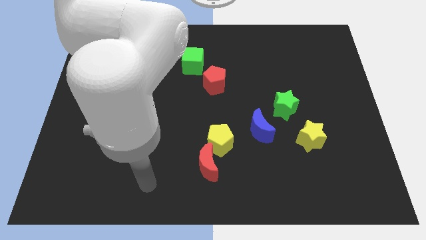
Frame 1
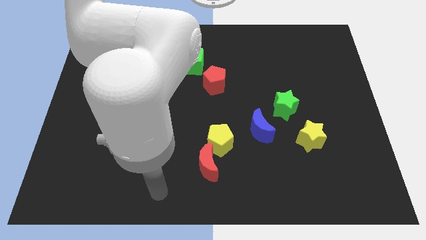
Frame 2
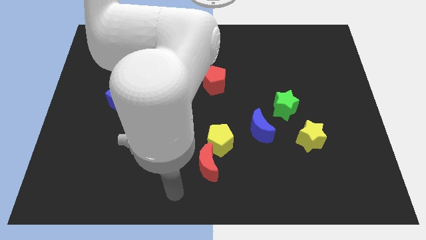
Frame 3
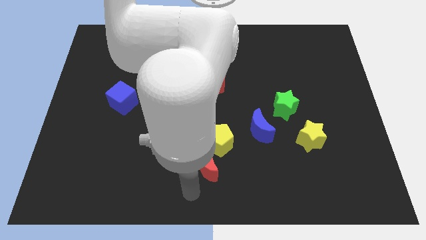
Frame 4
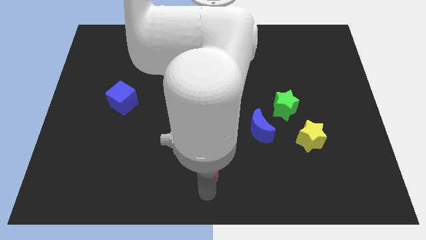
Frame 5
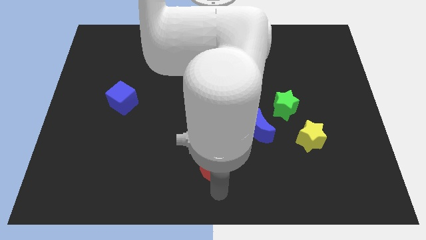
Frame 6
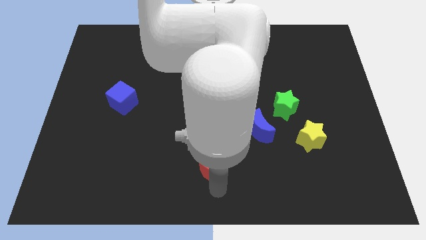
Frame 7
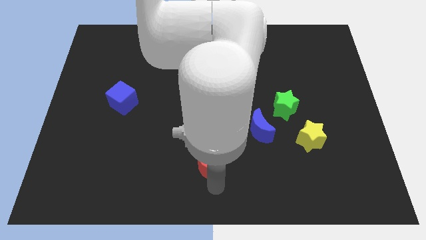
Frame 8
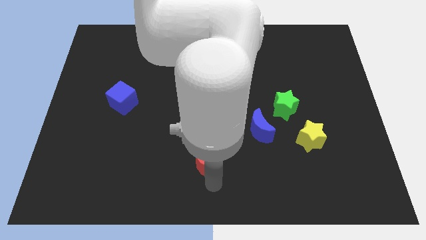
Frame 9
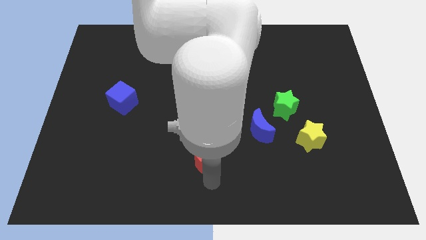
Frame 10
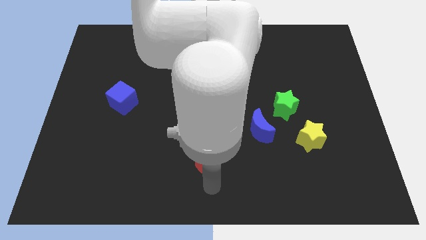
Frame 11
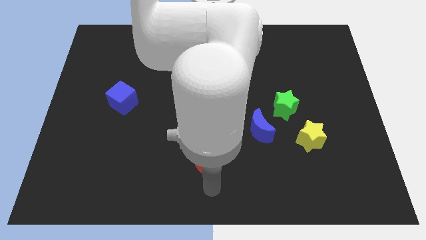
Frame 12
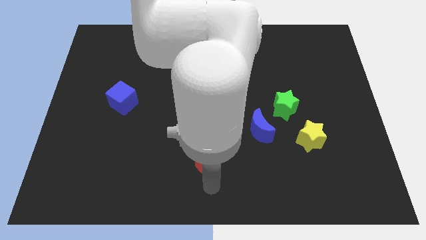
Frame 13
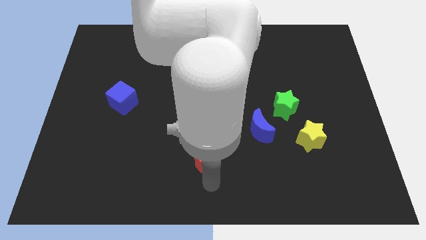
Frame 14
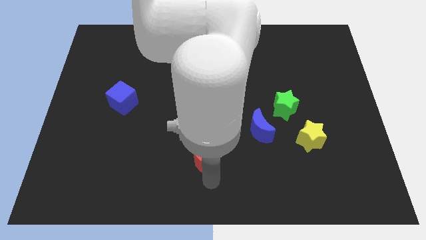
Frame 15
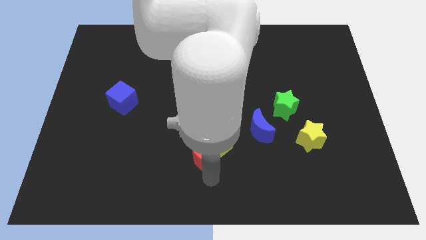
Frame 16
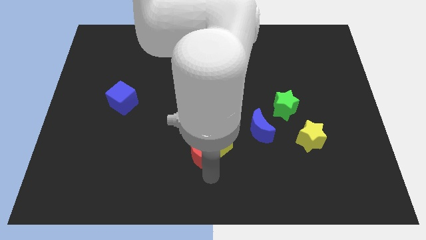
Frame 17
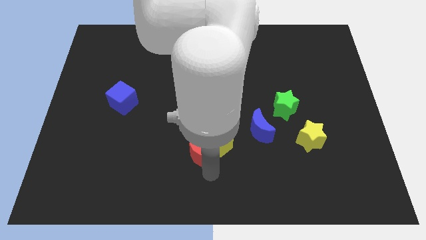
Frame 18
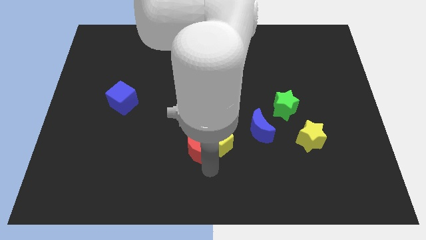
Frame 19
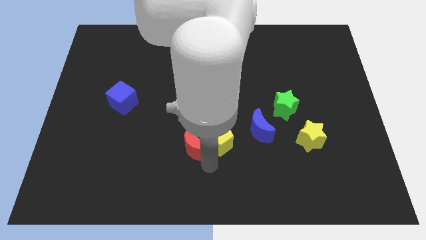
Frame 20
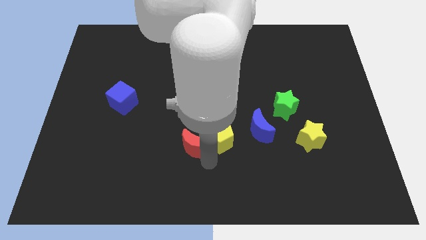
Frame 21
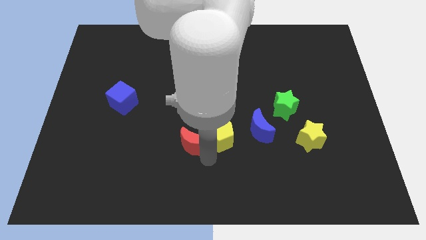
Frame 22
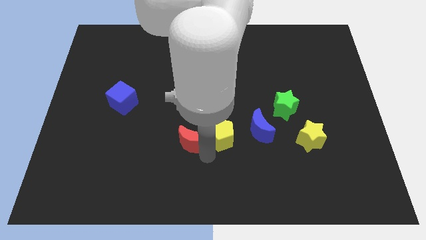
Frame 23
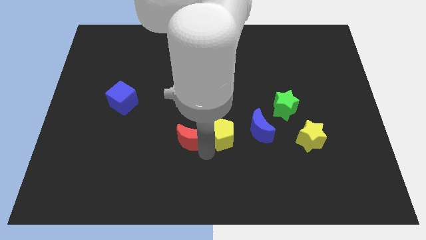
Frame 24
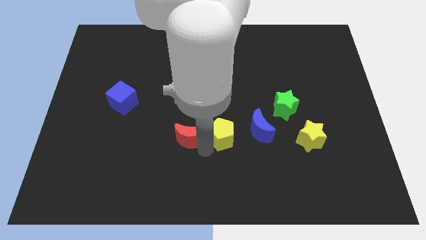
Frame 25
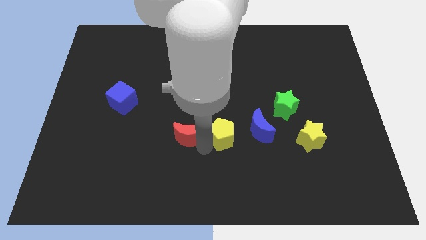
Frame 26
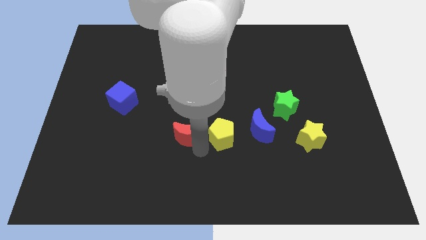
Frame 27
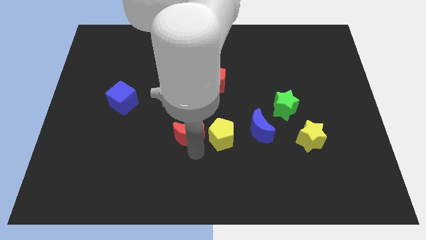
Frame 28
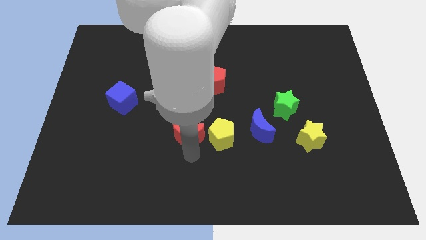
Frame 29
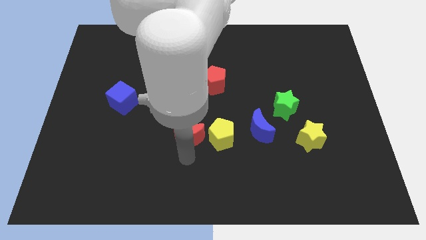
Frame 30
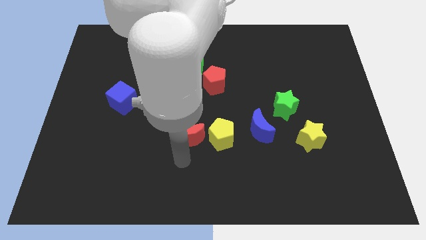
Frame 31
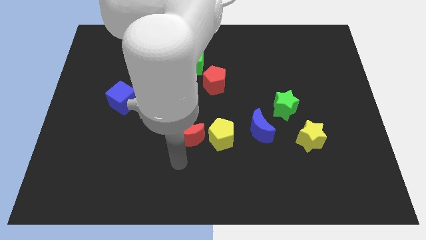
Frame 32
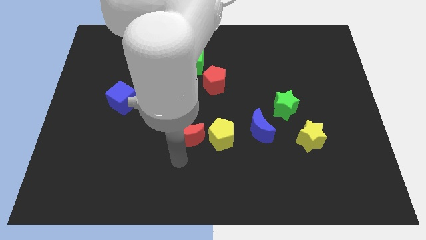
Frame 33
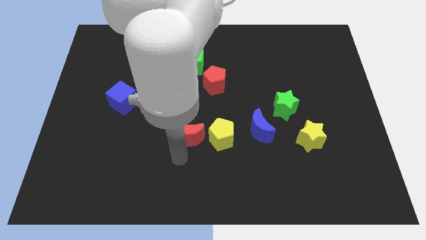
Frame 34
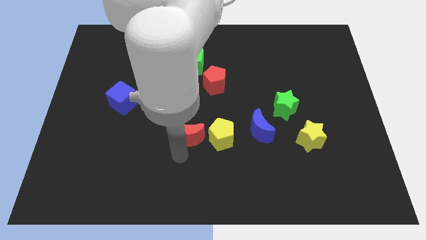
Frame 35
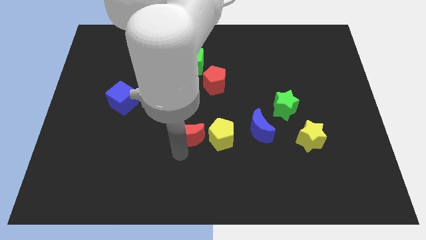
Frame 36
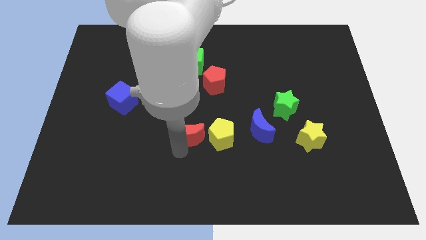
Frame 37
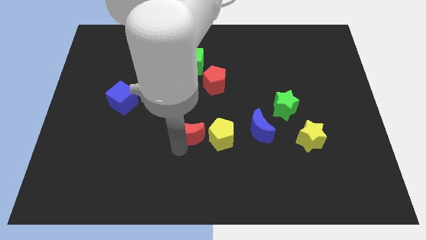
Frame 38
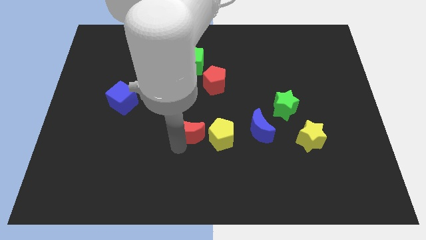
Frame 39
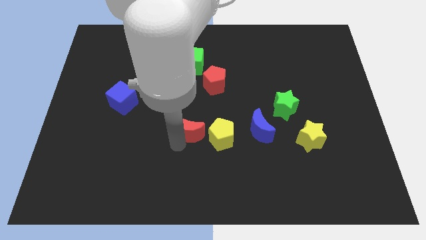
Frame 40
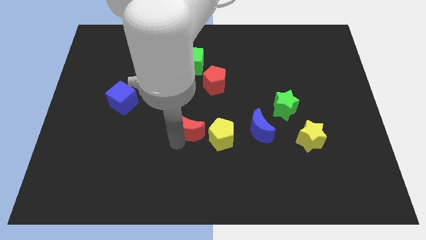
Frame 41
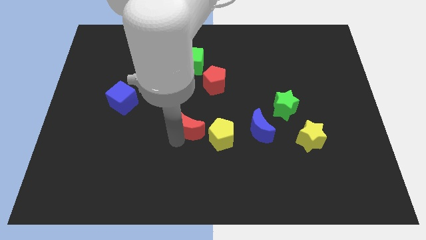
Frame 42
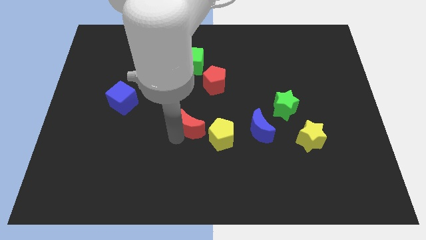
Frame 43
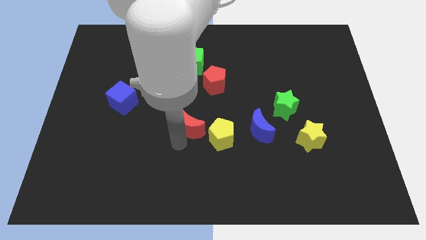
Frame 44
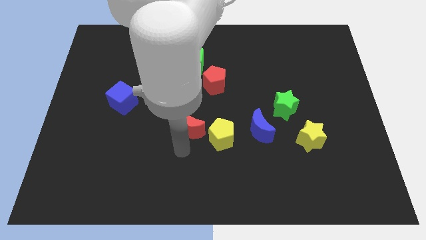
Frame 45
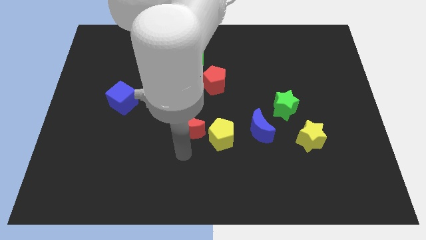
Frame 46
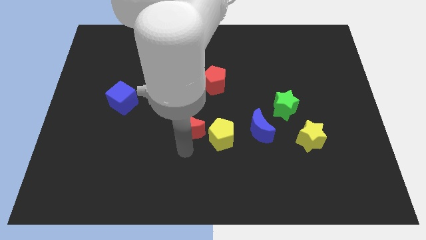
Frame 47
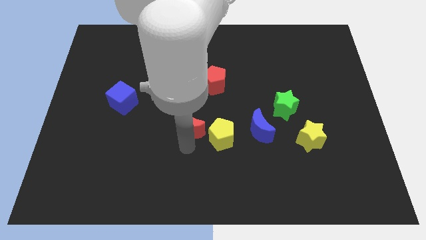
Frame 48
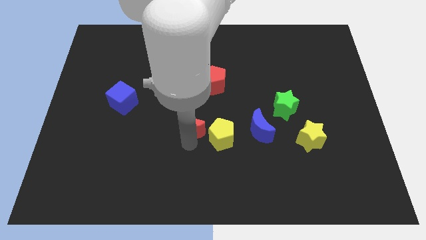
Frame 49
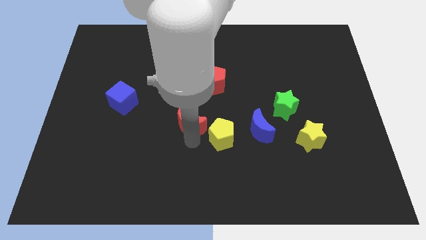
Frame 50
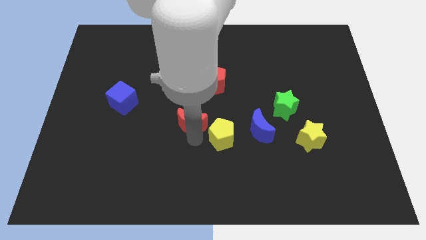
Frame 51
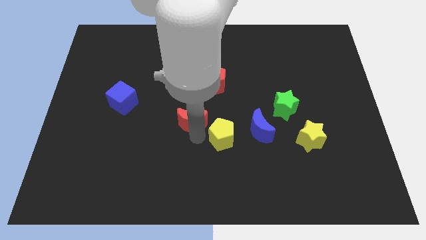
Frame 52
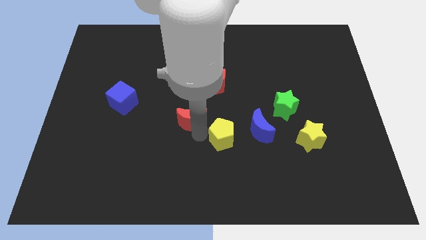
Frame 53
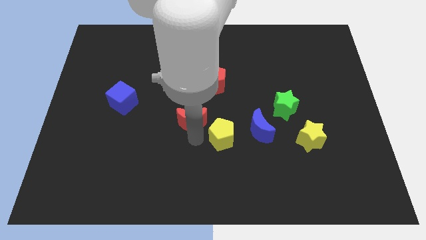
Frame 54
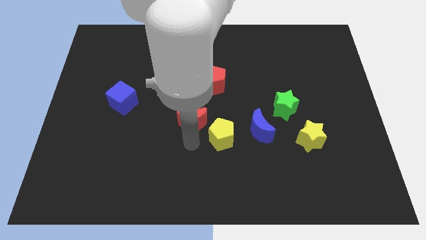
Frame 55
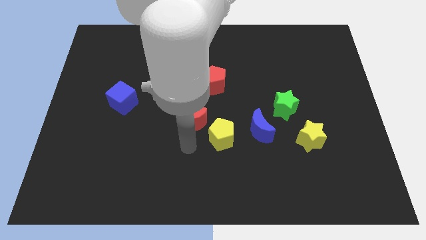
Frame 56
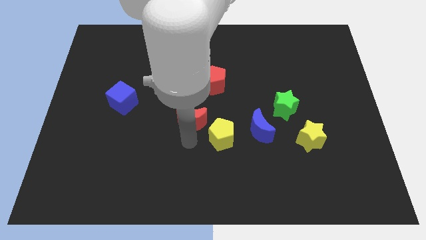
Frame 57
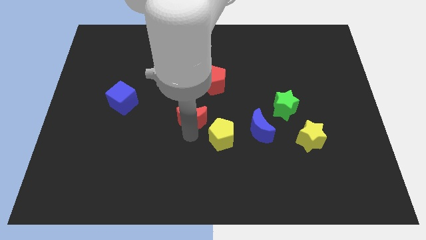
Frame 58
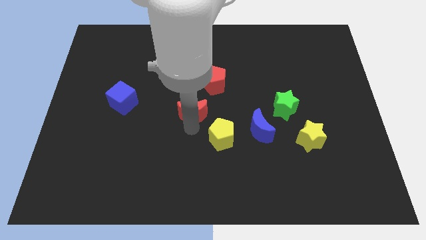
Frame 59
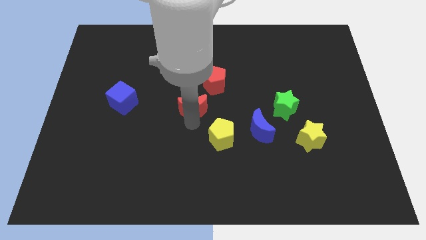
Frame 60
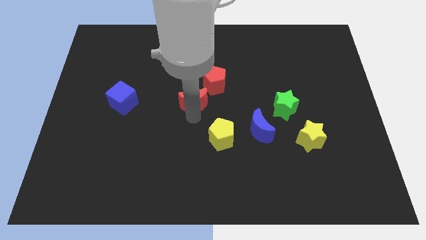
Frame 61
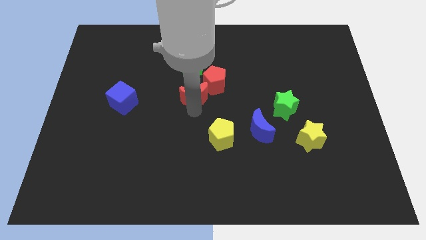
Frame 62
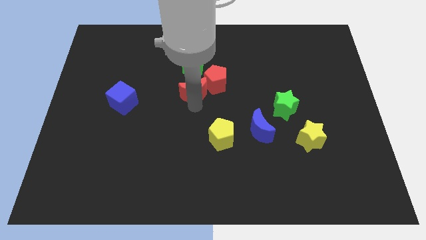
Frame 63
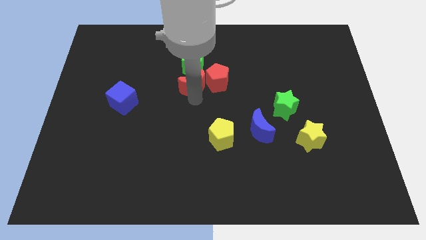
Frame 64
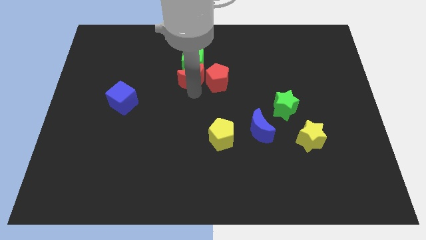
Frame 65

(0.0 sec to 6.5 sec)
move the red moon next to the green cube

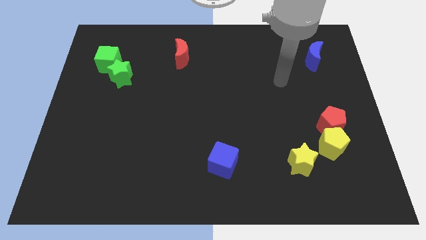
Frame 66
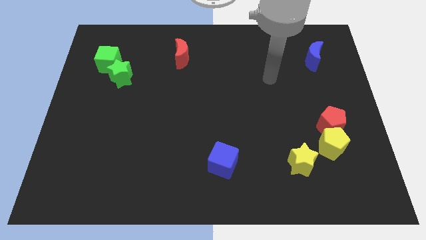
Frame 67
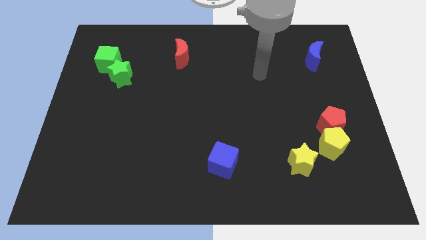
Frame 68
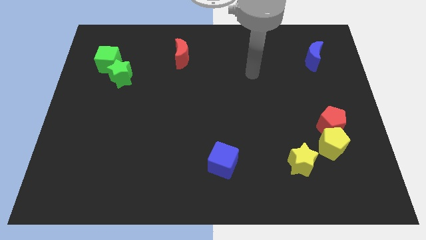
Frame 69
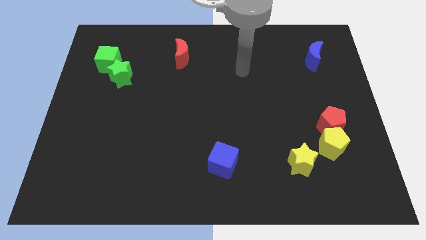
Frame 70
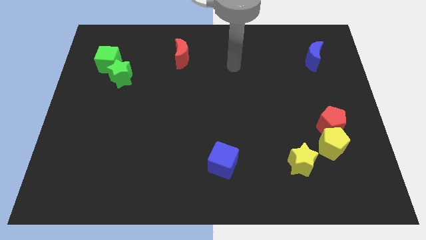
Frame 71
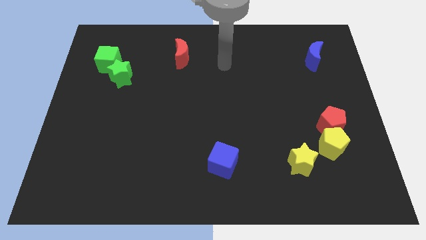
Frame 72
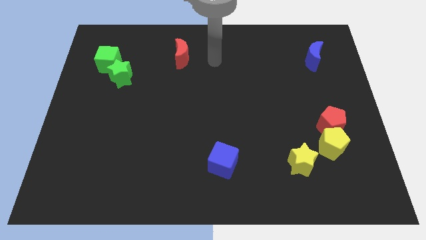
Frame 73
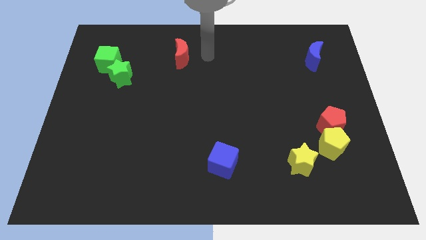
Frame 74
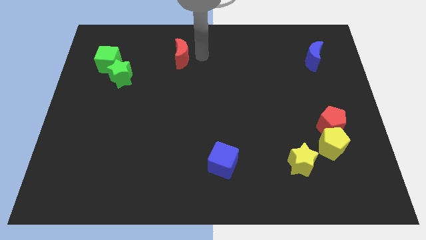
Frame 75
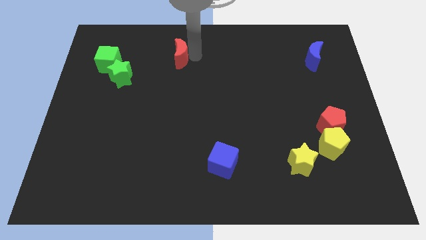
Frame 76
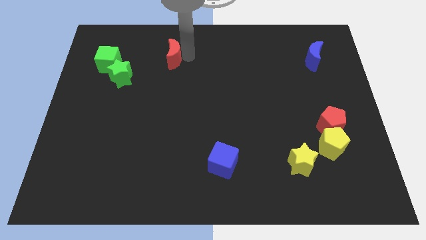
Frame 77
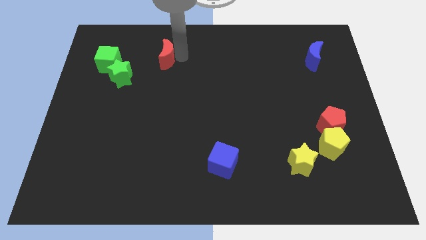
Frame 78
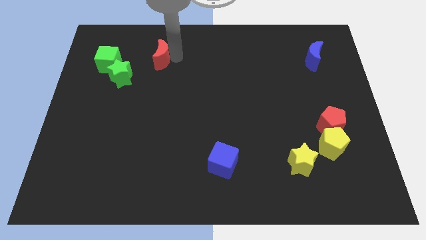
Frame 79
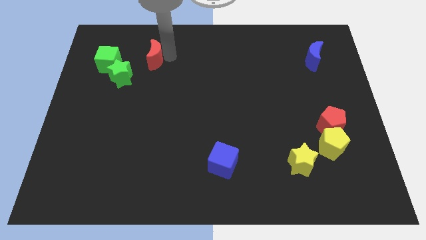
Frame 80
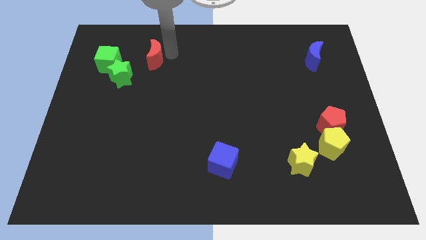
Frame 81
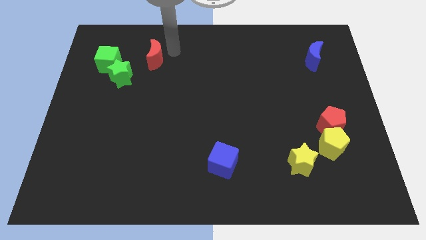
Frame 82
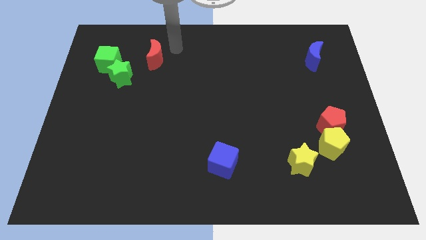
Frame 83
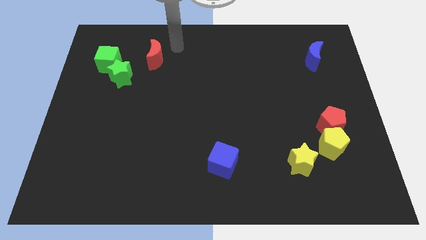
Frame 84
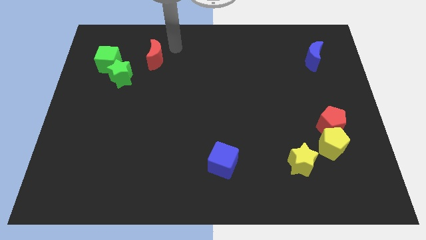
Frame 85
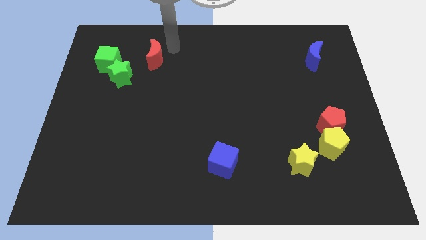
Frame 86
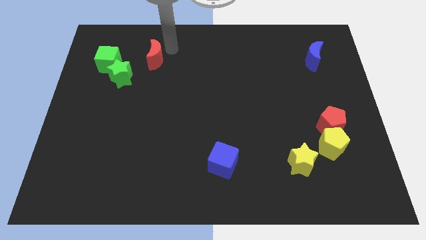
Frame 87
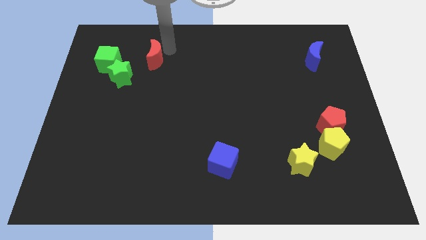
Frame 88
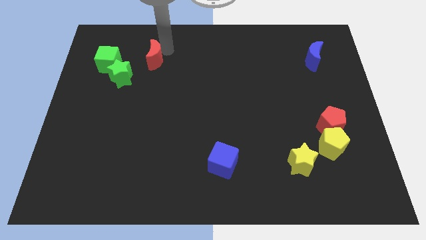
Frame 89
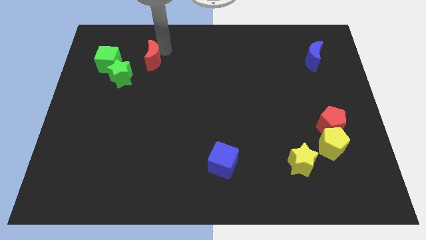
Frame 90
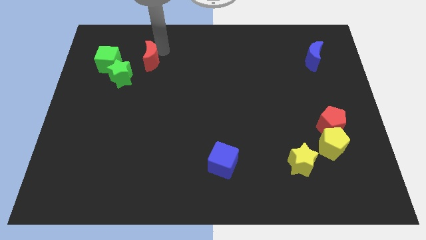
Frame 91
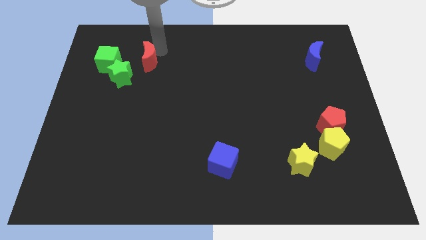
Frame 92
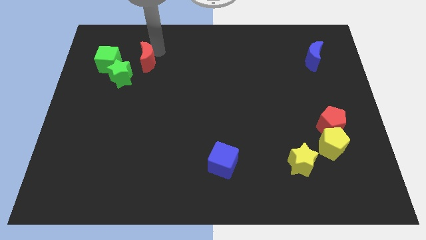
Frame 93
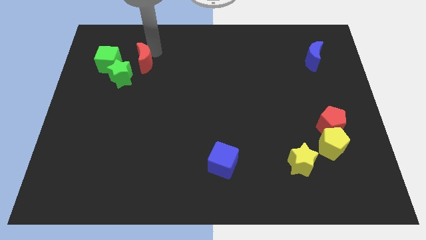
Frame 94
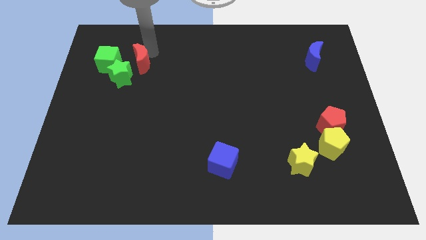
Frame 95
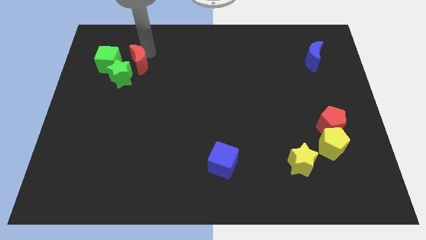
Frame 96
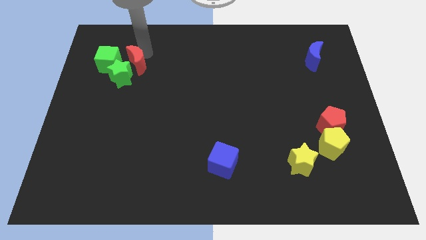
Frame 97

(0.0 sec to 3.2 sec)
move the red moon next to the green star
